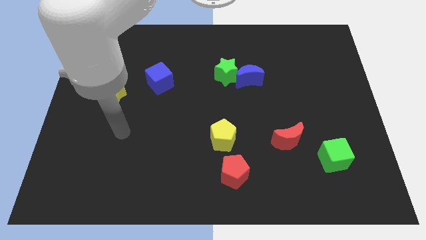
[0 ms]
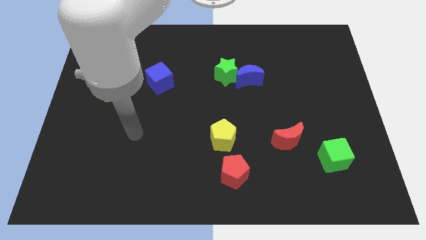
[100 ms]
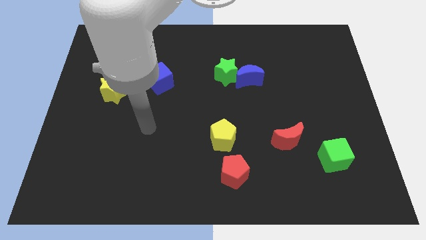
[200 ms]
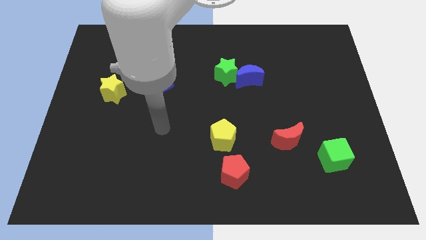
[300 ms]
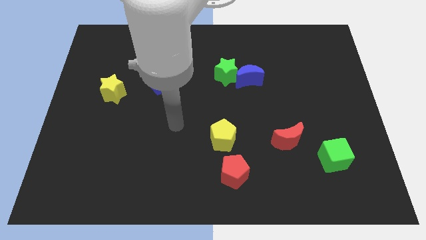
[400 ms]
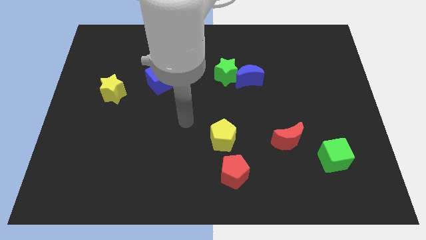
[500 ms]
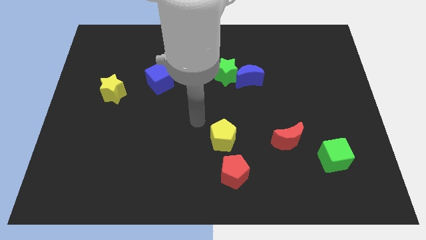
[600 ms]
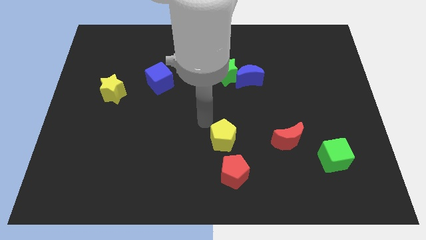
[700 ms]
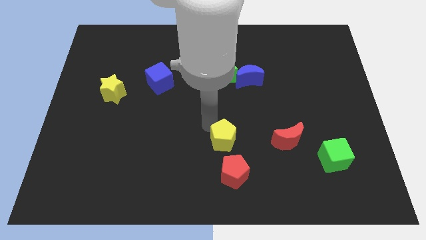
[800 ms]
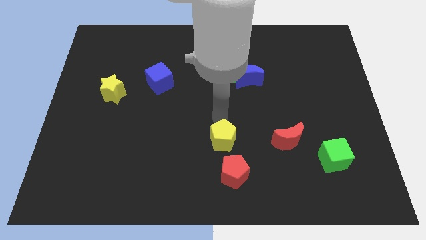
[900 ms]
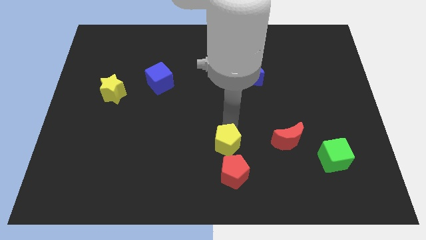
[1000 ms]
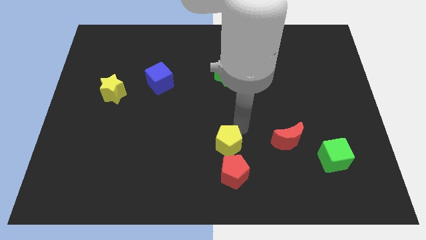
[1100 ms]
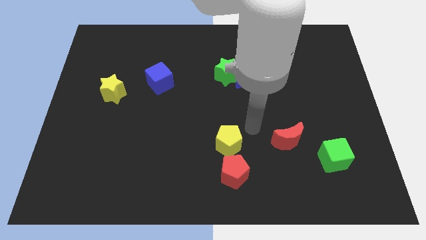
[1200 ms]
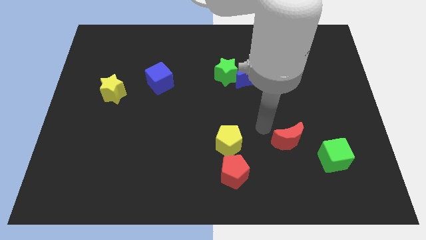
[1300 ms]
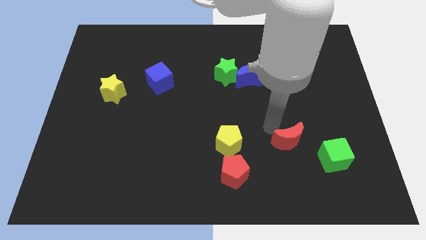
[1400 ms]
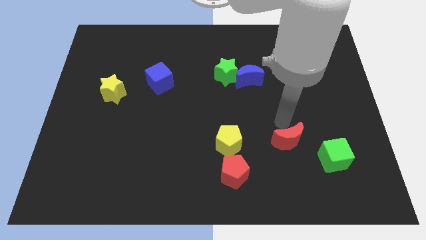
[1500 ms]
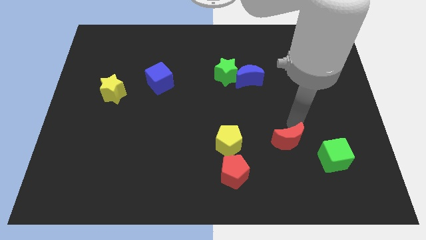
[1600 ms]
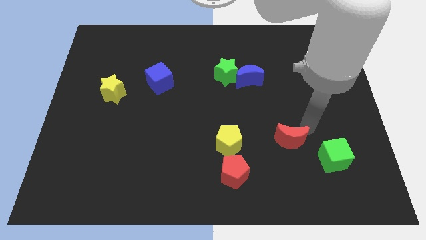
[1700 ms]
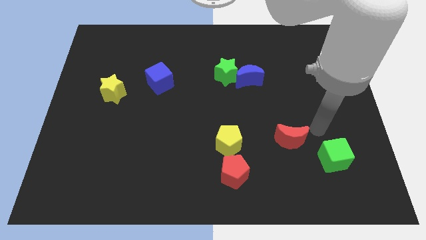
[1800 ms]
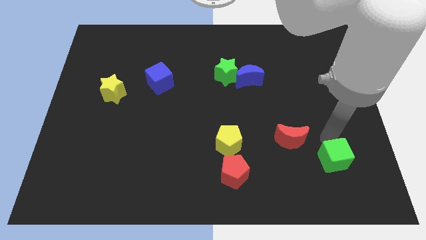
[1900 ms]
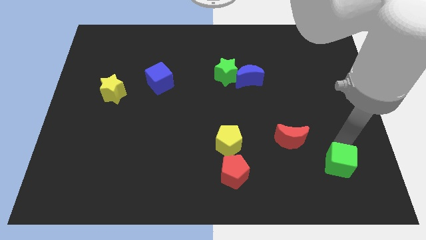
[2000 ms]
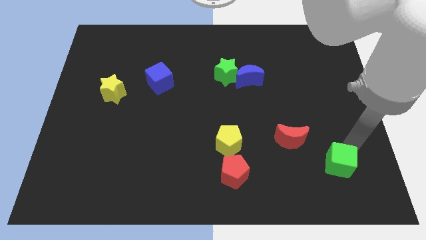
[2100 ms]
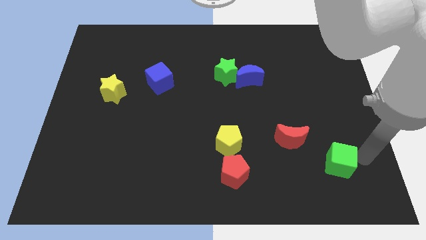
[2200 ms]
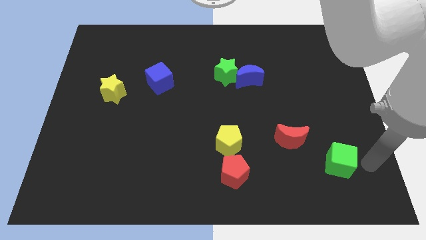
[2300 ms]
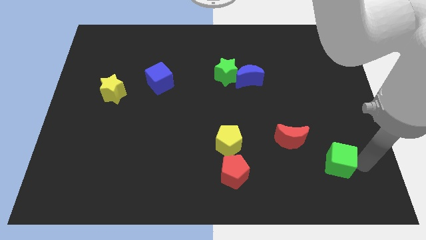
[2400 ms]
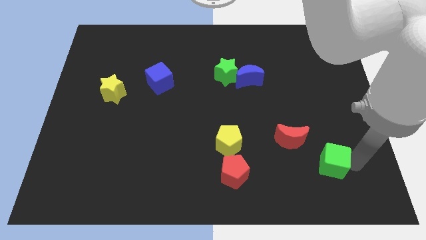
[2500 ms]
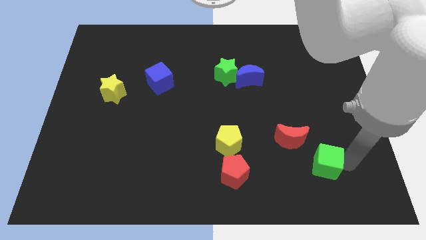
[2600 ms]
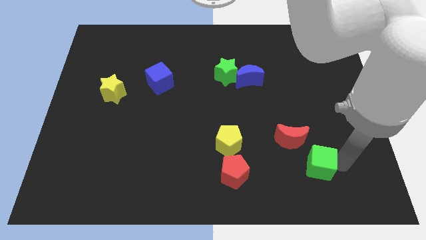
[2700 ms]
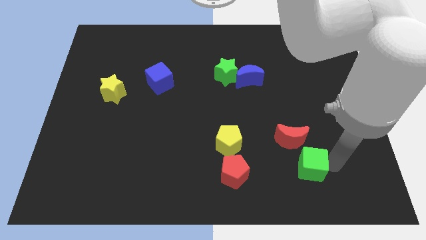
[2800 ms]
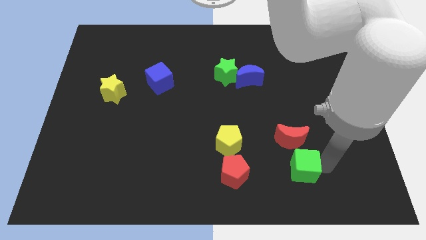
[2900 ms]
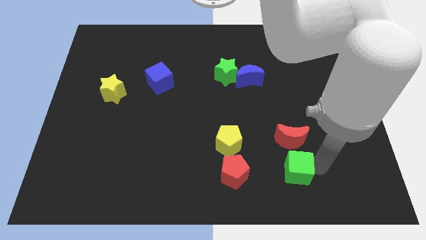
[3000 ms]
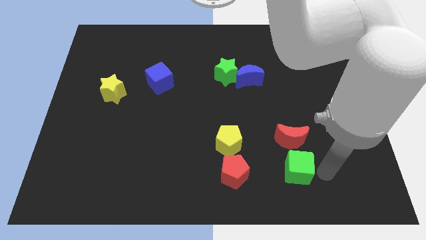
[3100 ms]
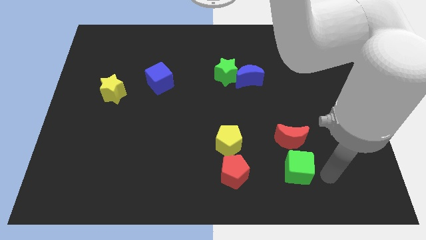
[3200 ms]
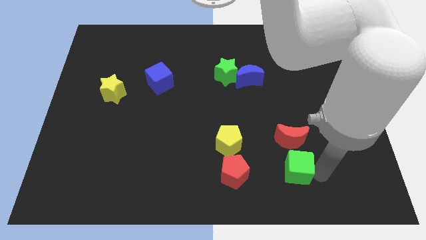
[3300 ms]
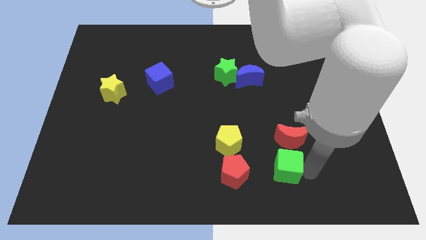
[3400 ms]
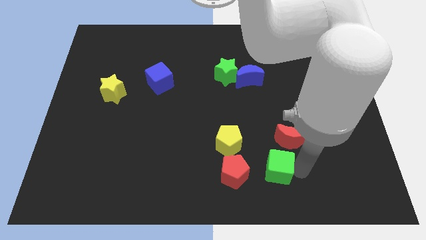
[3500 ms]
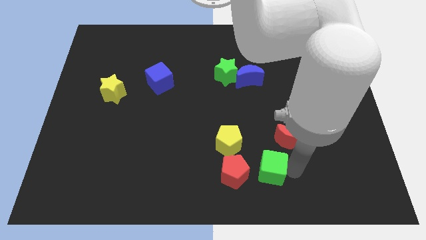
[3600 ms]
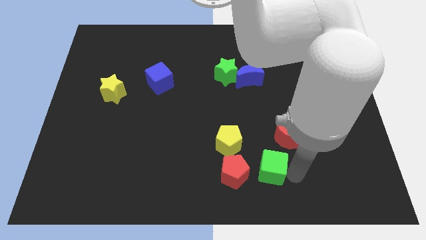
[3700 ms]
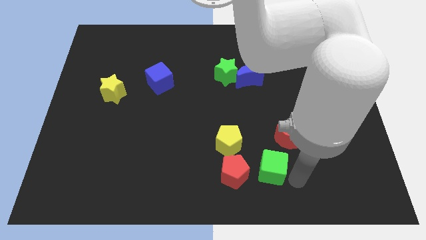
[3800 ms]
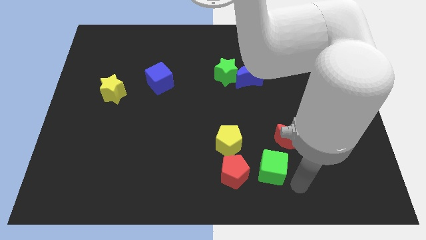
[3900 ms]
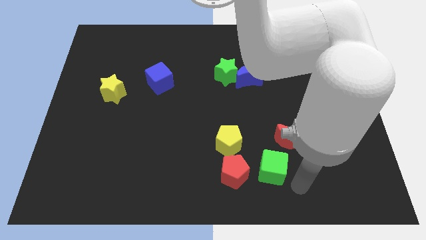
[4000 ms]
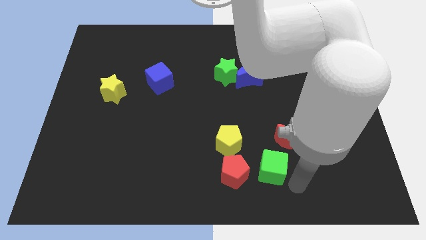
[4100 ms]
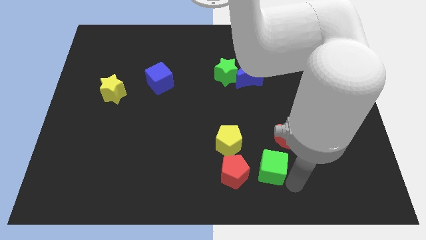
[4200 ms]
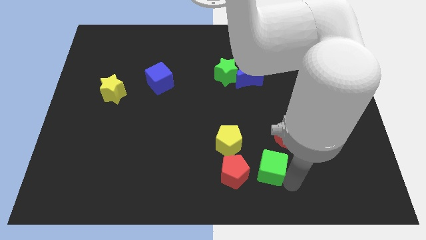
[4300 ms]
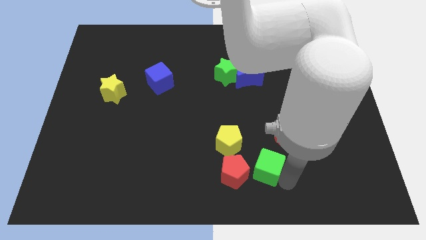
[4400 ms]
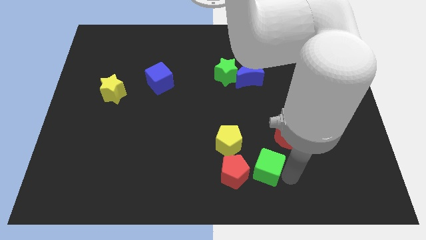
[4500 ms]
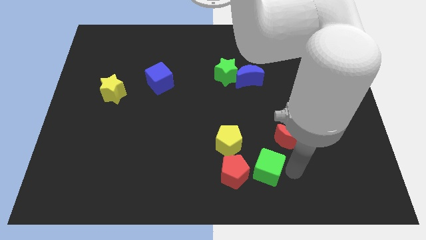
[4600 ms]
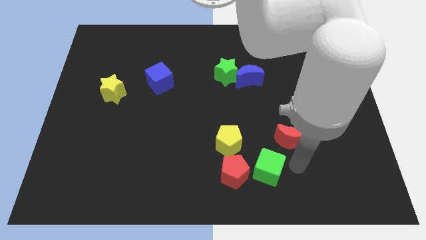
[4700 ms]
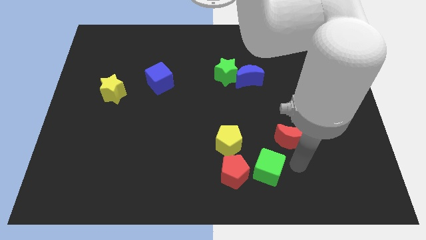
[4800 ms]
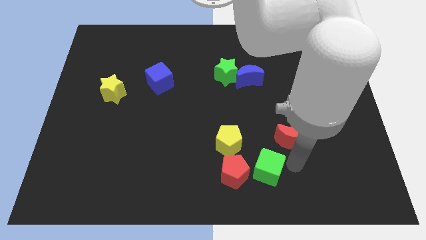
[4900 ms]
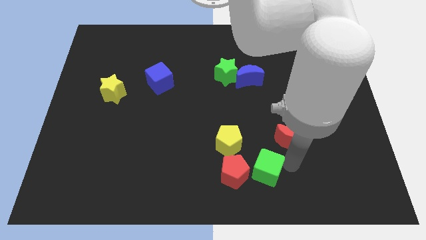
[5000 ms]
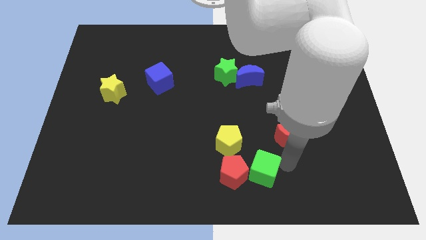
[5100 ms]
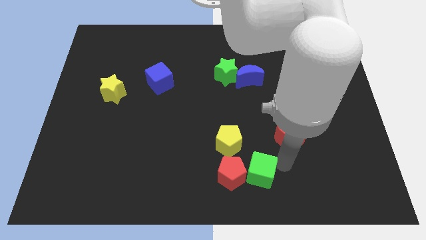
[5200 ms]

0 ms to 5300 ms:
push the green cube close to the red pentagon

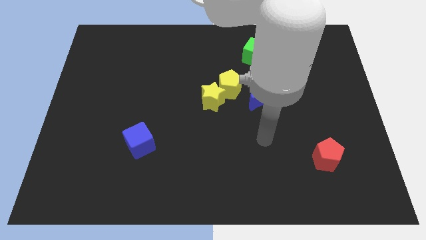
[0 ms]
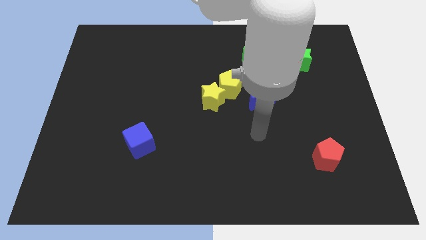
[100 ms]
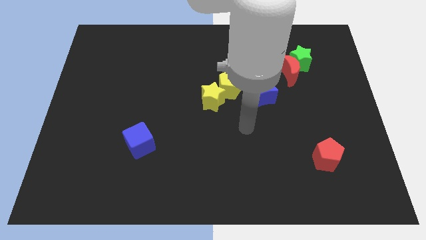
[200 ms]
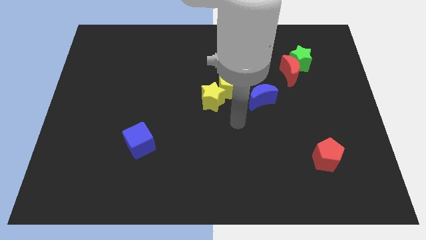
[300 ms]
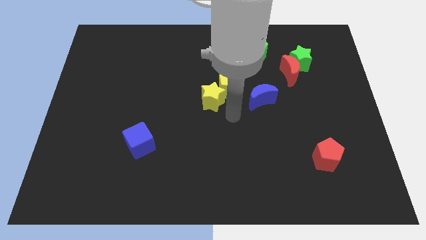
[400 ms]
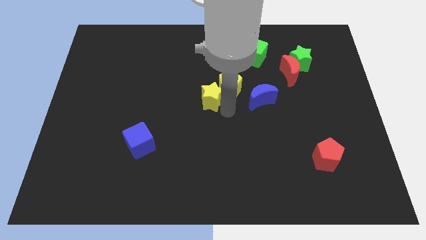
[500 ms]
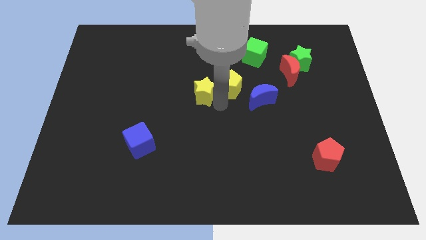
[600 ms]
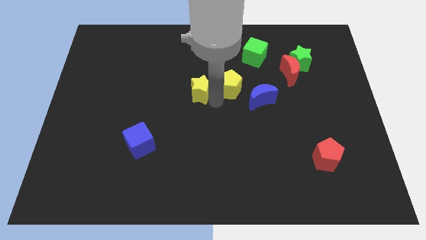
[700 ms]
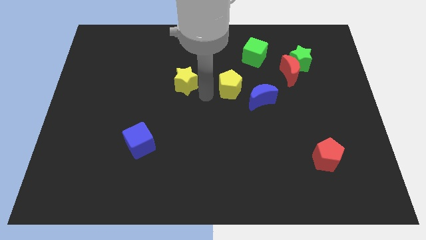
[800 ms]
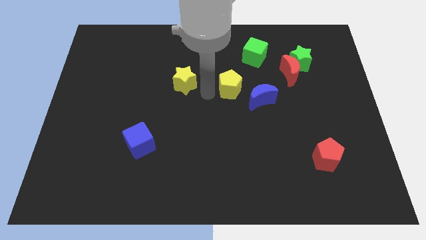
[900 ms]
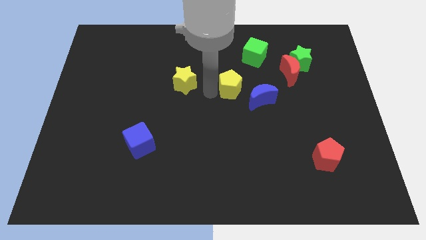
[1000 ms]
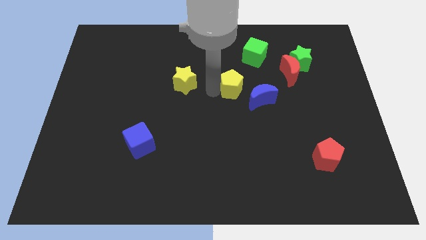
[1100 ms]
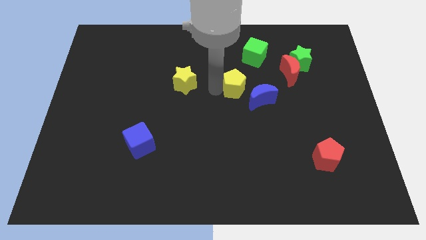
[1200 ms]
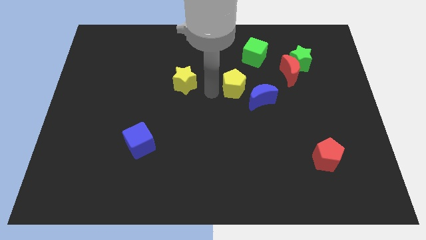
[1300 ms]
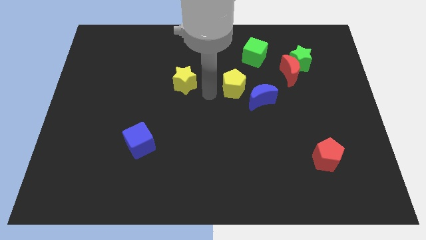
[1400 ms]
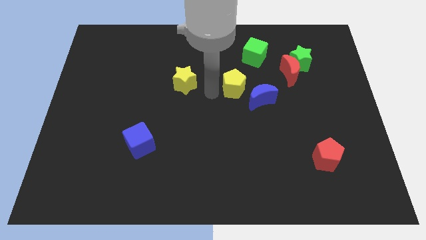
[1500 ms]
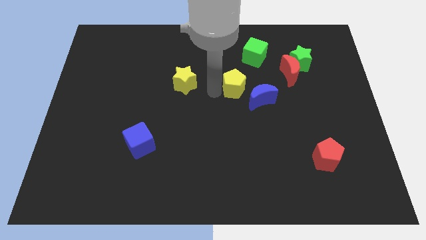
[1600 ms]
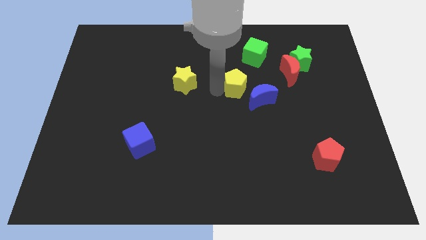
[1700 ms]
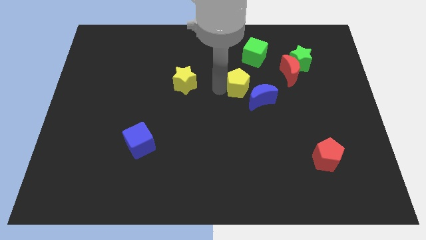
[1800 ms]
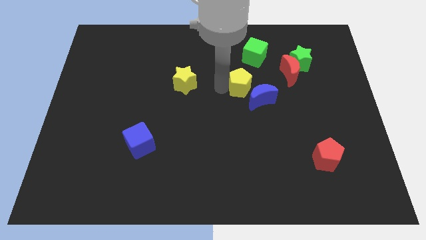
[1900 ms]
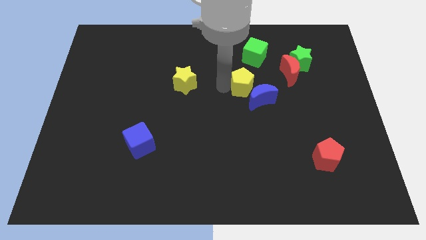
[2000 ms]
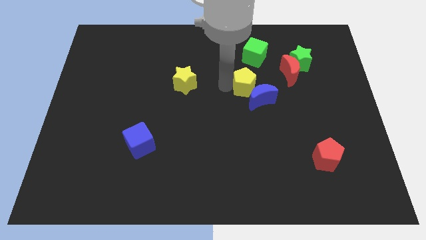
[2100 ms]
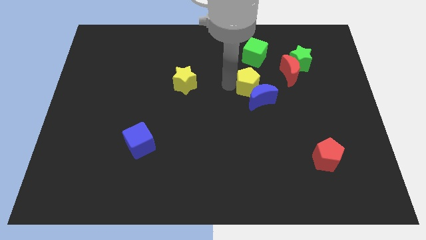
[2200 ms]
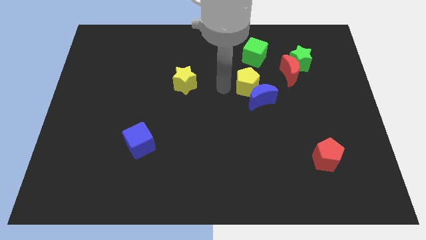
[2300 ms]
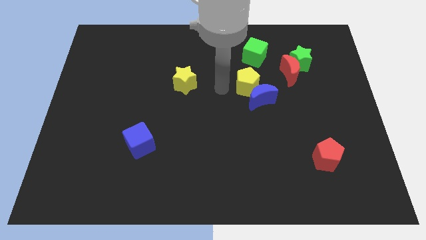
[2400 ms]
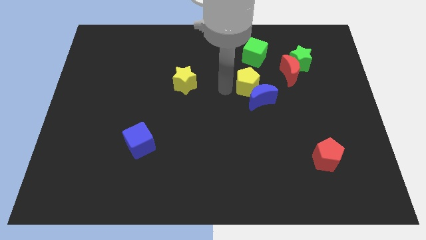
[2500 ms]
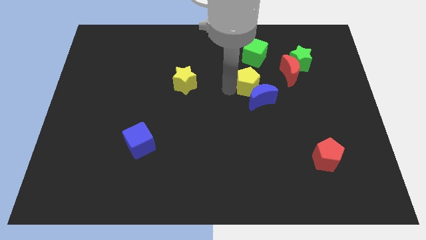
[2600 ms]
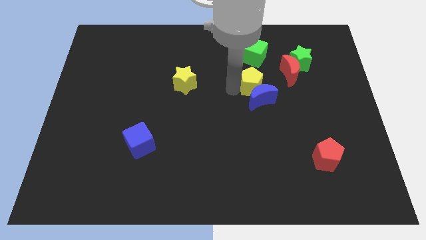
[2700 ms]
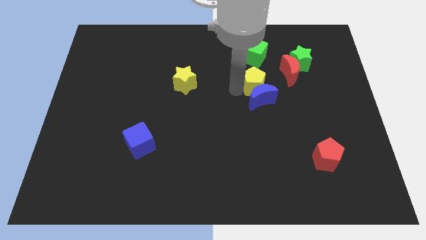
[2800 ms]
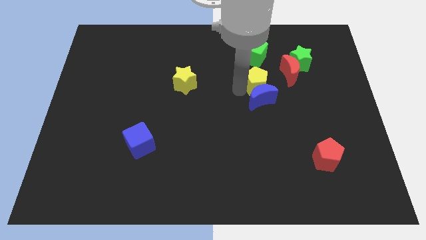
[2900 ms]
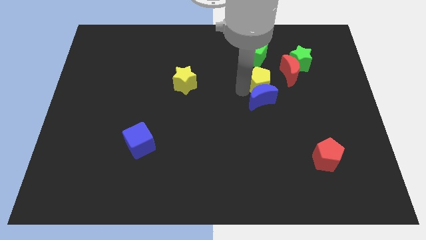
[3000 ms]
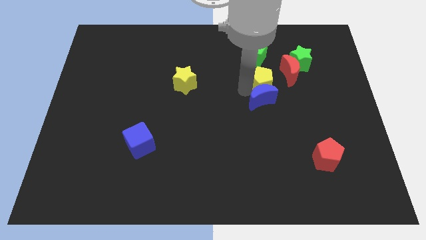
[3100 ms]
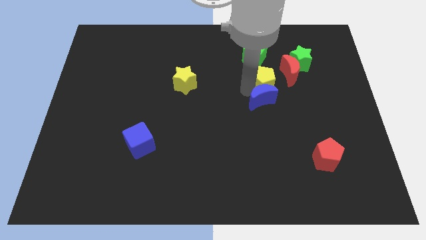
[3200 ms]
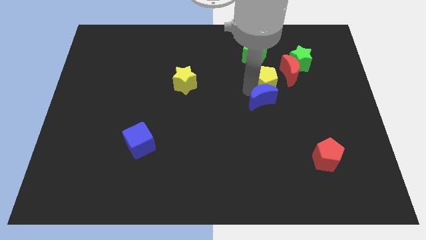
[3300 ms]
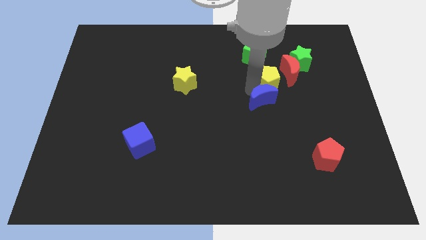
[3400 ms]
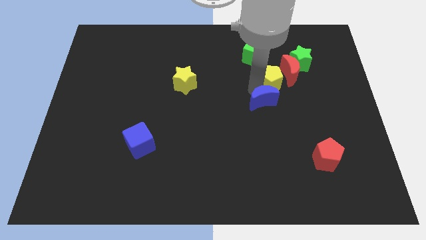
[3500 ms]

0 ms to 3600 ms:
slide the yellow pentagon close to the red moon
